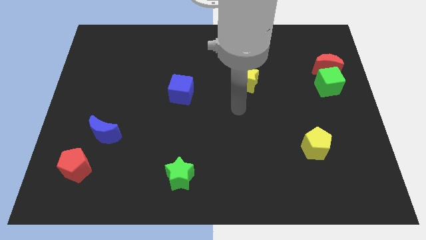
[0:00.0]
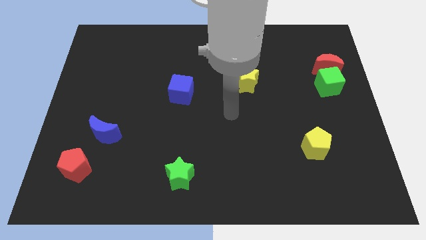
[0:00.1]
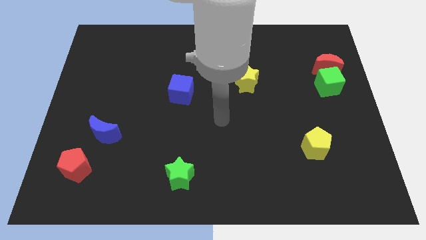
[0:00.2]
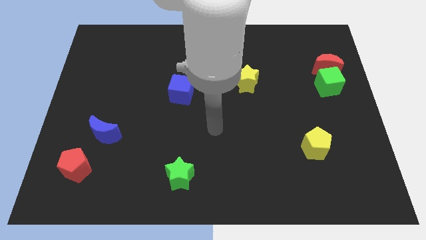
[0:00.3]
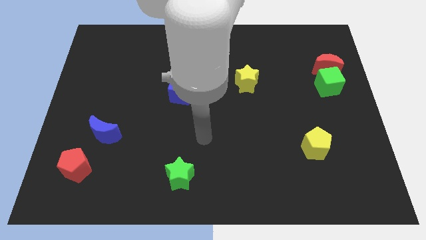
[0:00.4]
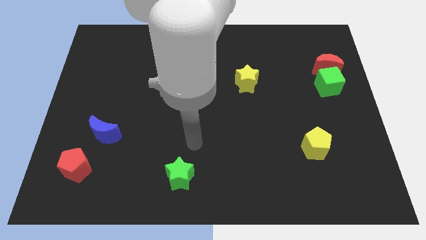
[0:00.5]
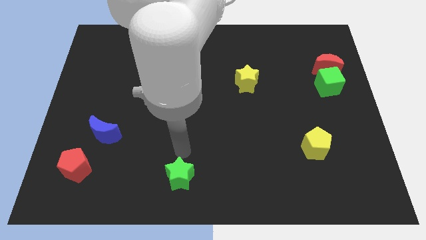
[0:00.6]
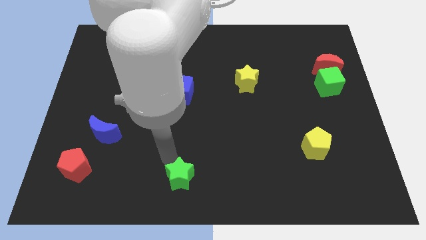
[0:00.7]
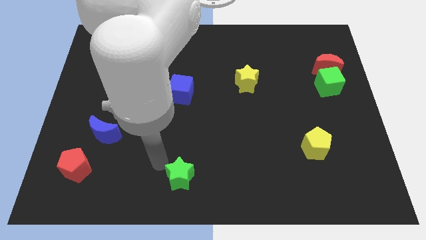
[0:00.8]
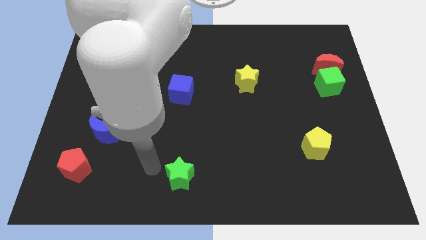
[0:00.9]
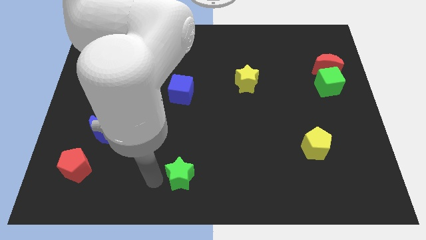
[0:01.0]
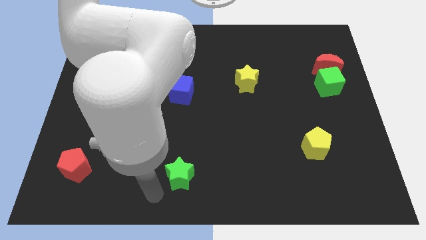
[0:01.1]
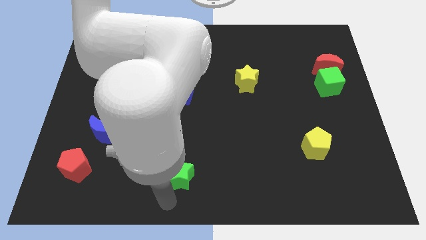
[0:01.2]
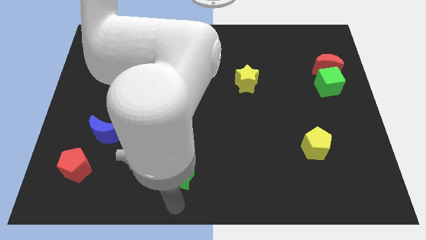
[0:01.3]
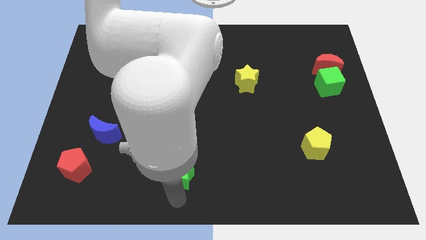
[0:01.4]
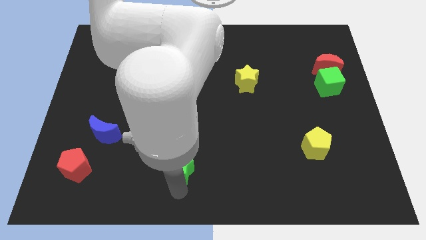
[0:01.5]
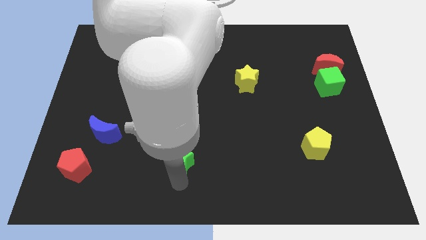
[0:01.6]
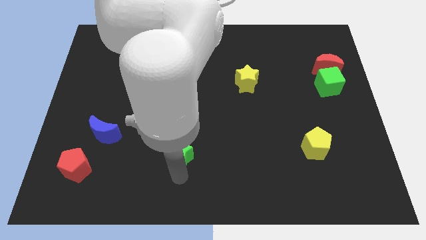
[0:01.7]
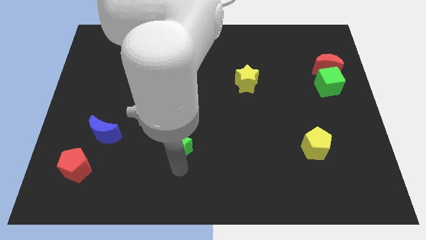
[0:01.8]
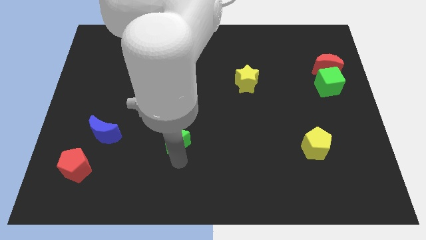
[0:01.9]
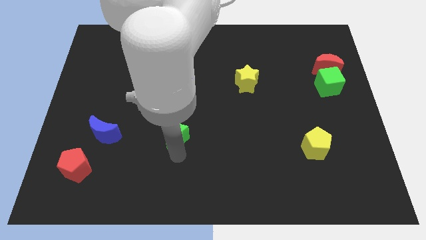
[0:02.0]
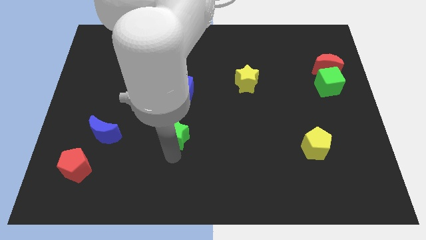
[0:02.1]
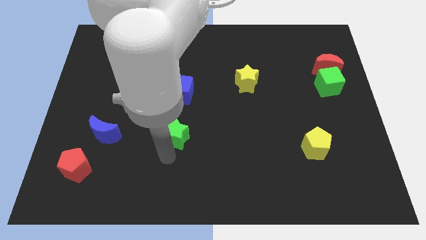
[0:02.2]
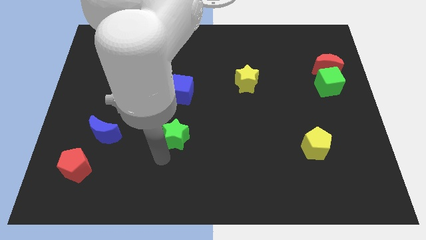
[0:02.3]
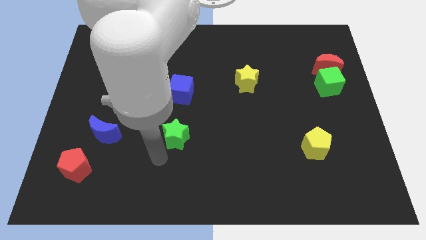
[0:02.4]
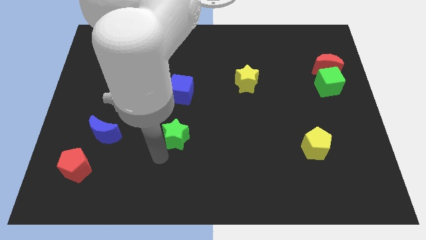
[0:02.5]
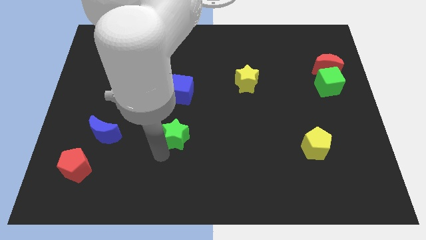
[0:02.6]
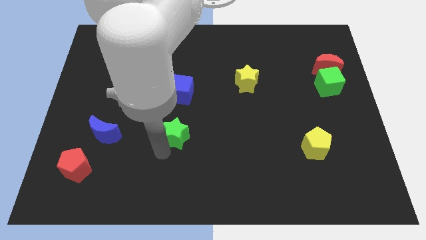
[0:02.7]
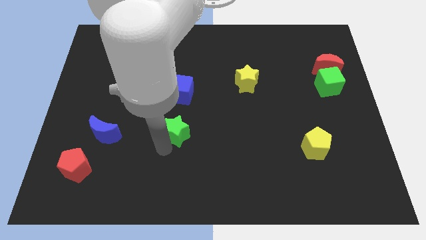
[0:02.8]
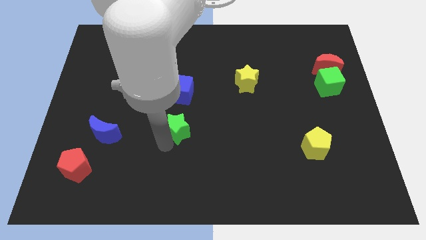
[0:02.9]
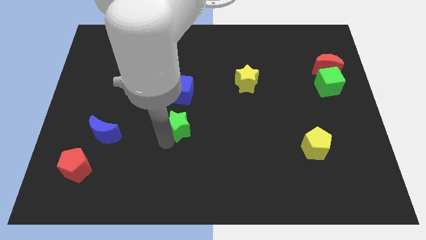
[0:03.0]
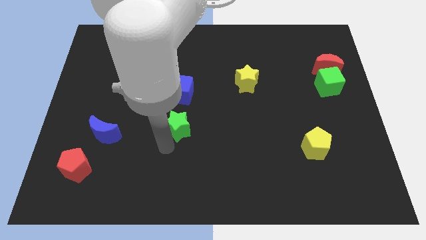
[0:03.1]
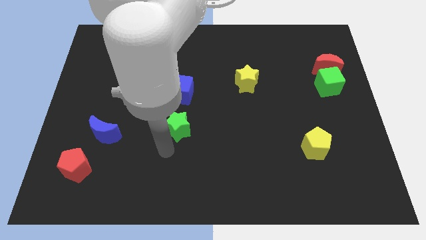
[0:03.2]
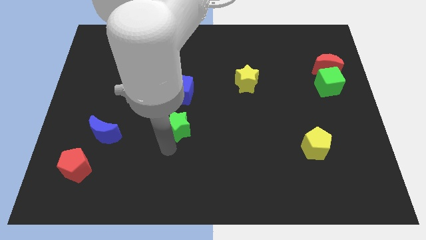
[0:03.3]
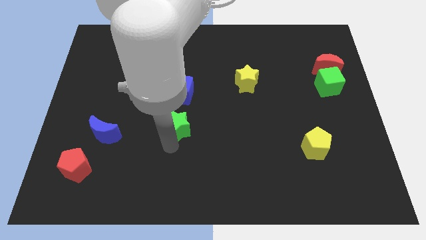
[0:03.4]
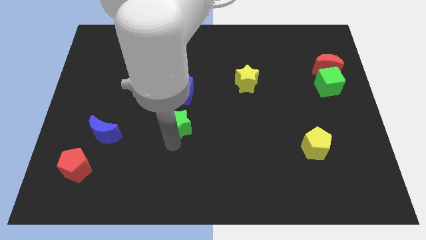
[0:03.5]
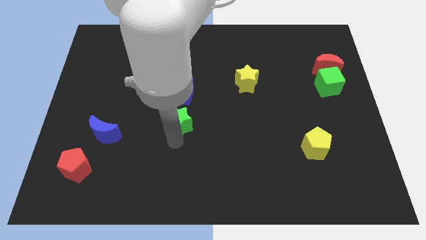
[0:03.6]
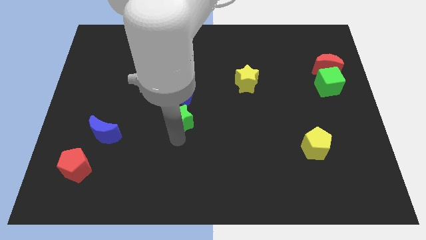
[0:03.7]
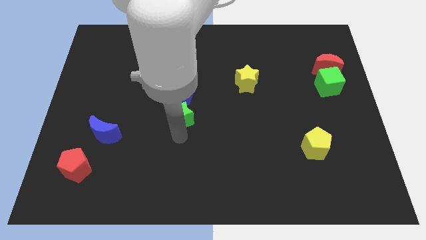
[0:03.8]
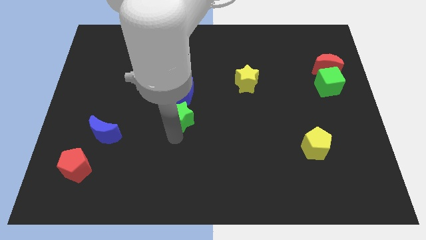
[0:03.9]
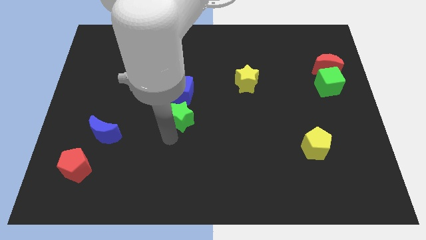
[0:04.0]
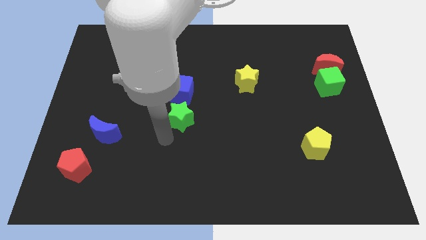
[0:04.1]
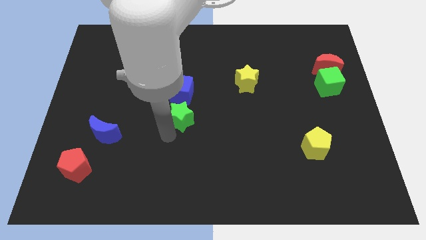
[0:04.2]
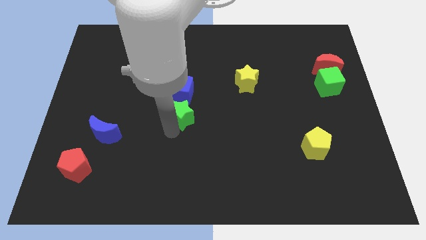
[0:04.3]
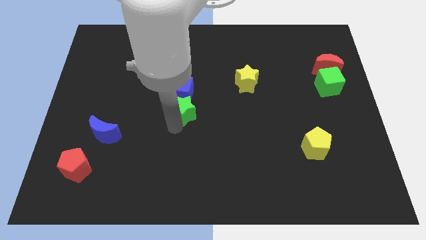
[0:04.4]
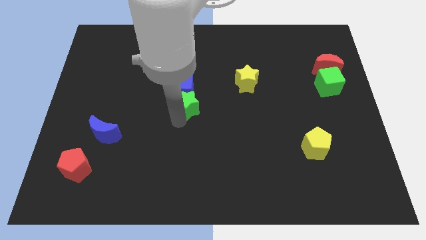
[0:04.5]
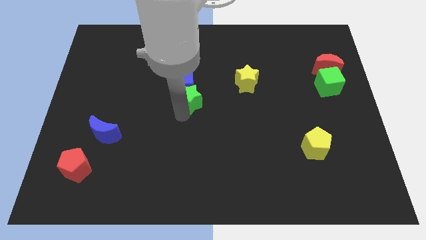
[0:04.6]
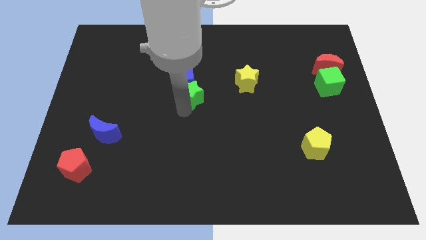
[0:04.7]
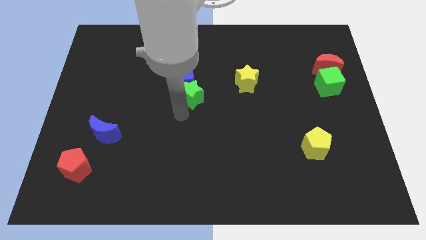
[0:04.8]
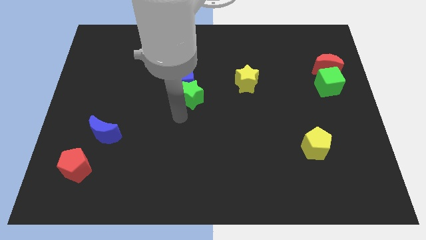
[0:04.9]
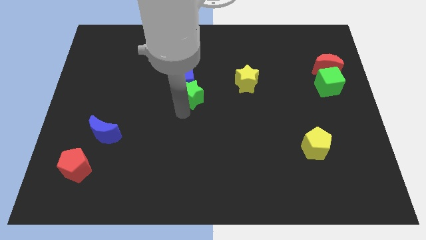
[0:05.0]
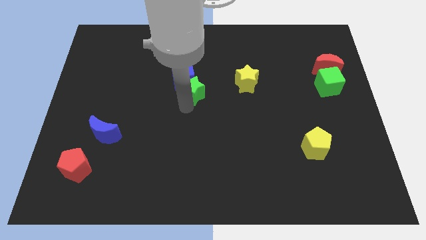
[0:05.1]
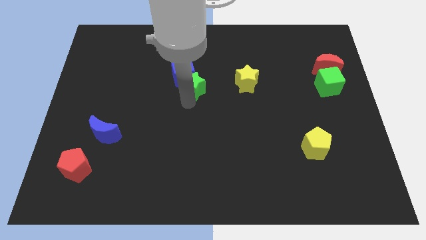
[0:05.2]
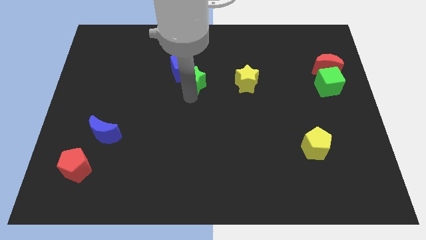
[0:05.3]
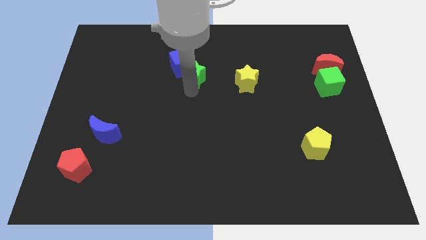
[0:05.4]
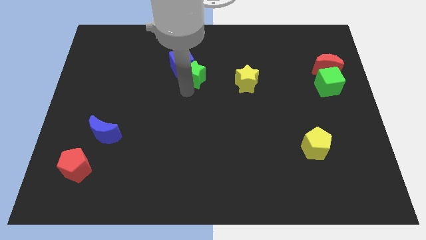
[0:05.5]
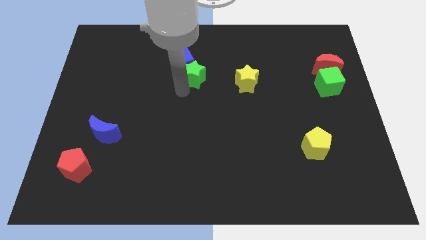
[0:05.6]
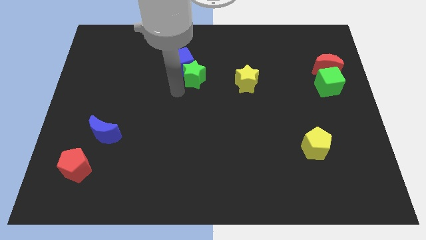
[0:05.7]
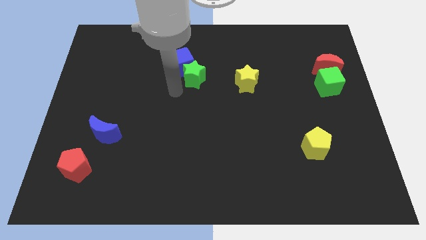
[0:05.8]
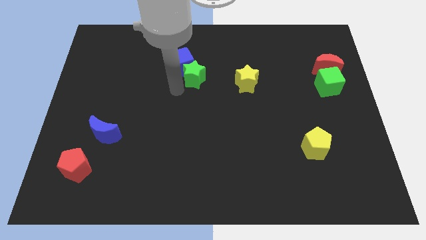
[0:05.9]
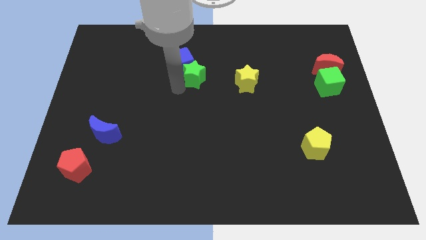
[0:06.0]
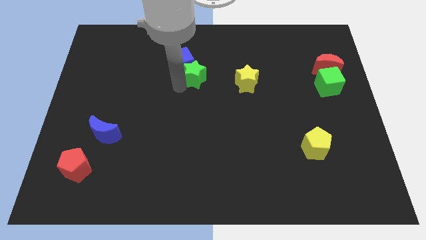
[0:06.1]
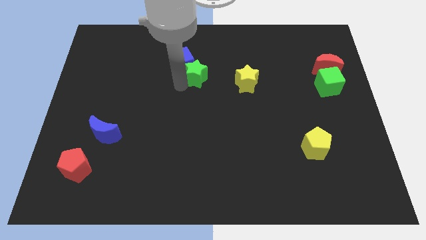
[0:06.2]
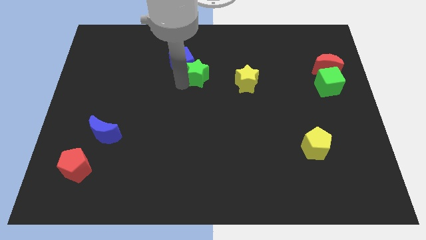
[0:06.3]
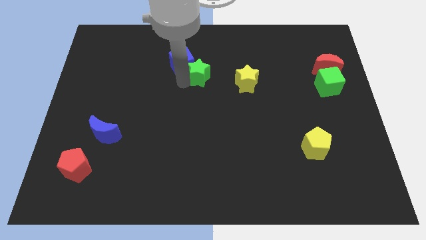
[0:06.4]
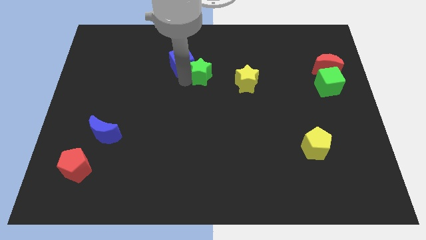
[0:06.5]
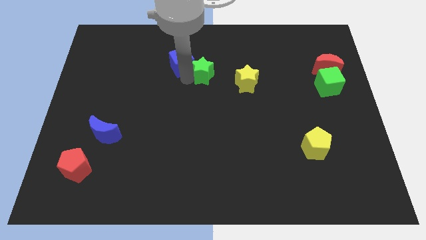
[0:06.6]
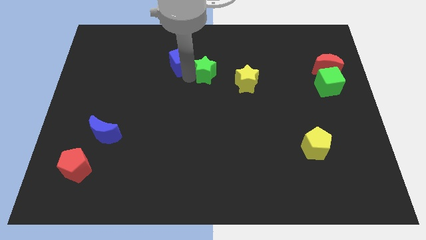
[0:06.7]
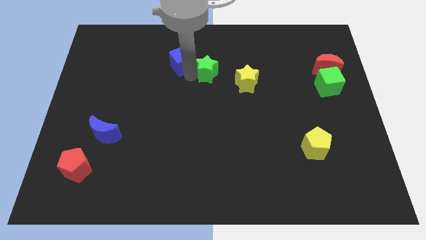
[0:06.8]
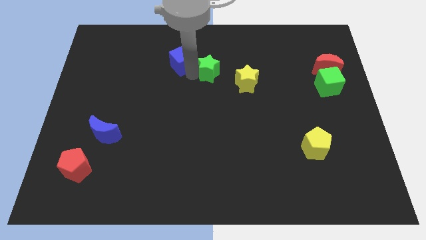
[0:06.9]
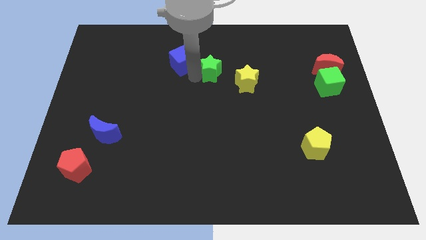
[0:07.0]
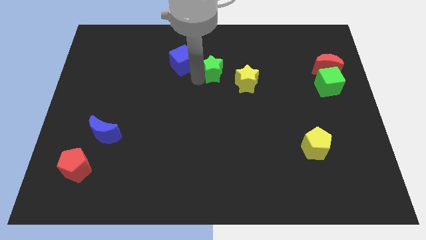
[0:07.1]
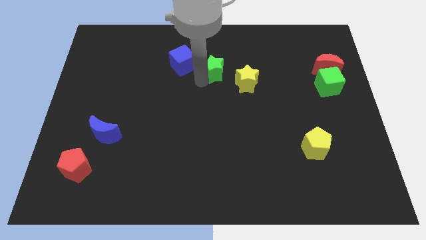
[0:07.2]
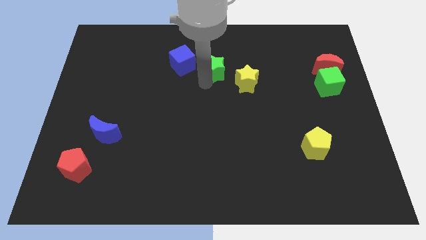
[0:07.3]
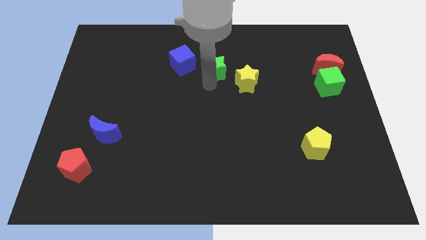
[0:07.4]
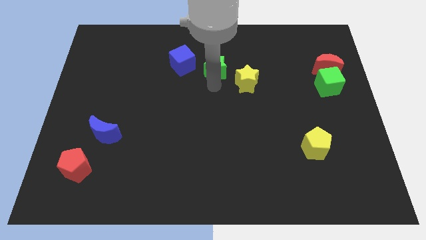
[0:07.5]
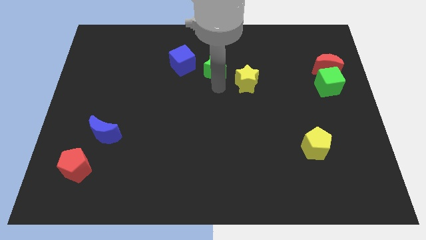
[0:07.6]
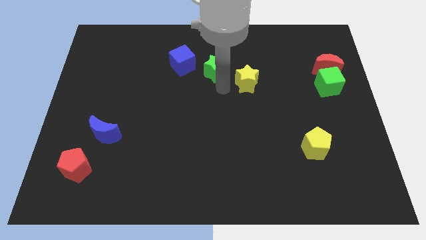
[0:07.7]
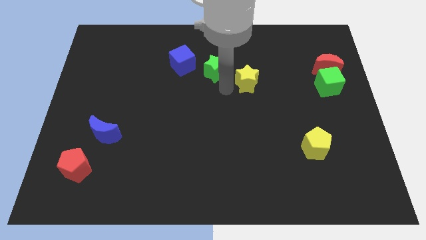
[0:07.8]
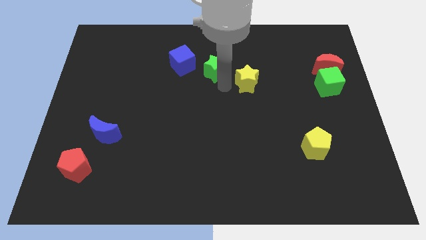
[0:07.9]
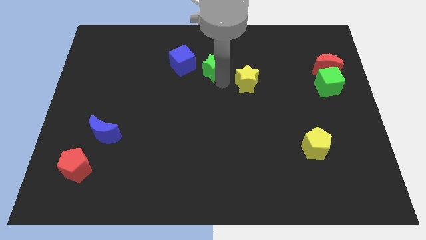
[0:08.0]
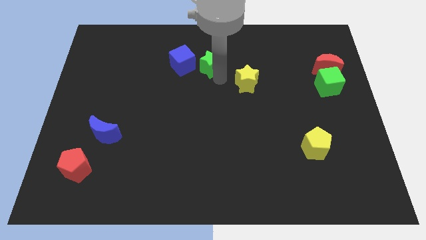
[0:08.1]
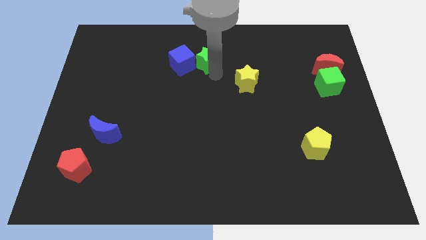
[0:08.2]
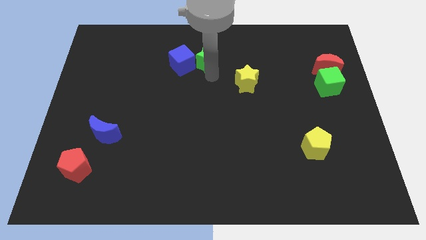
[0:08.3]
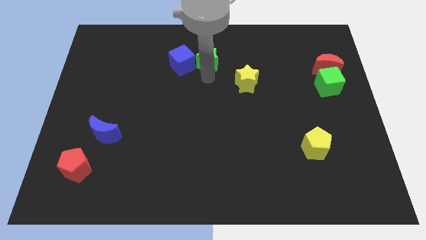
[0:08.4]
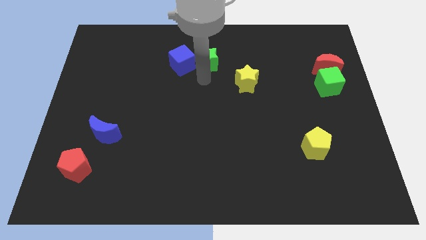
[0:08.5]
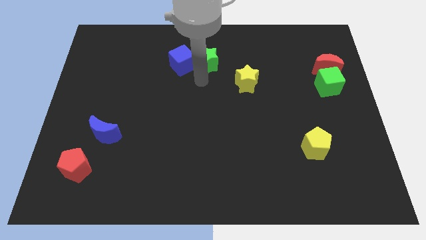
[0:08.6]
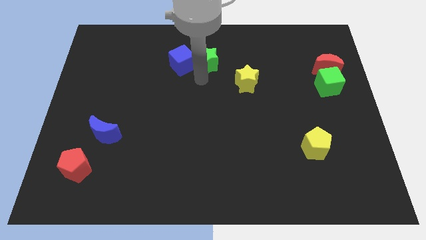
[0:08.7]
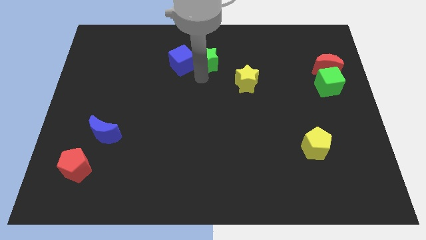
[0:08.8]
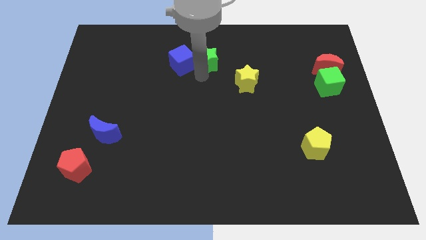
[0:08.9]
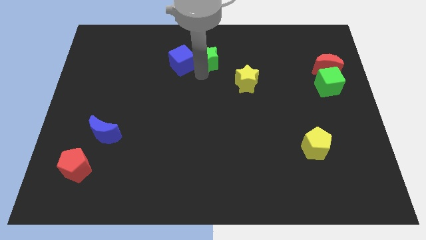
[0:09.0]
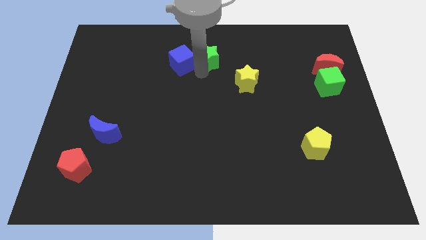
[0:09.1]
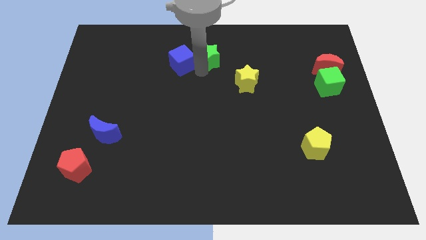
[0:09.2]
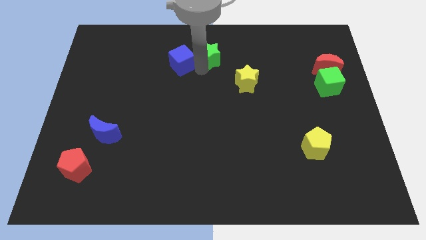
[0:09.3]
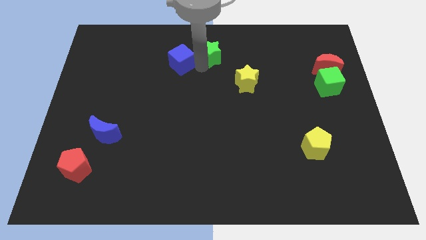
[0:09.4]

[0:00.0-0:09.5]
push the green star to the top side
